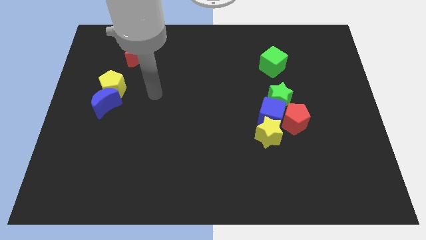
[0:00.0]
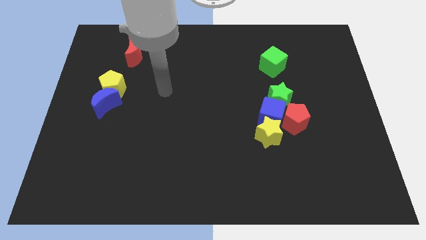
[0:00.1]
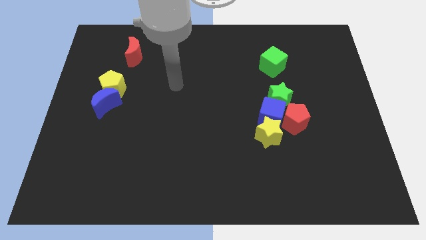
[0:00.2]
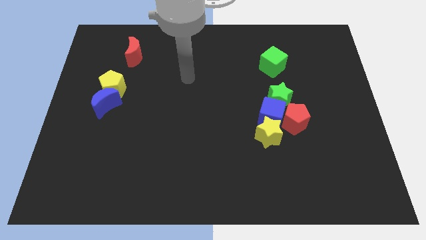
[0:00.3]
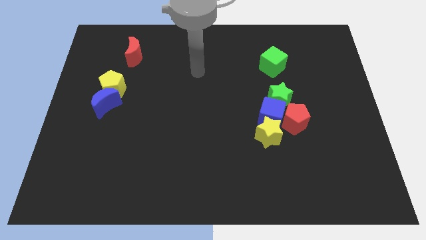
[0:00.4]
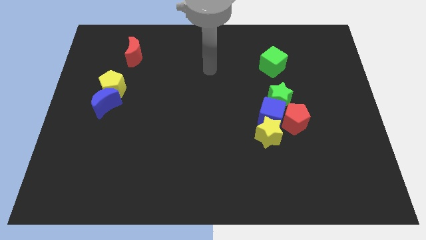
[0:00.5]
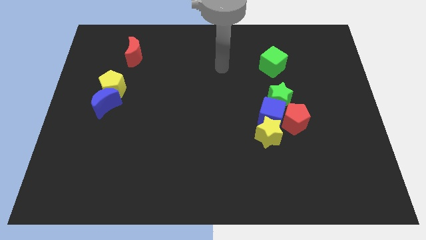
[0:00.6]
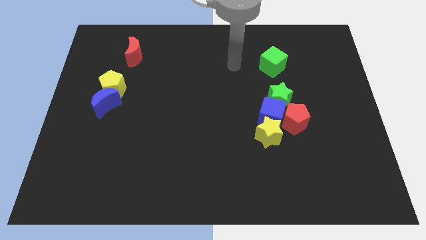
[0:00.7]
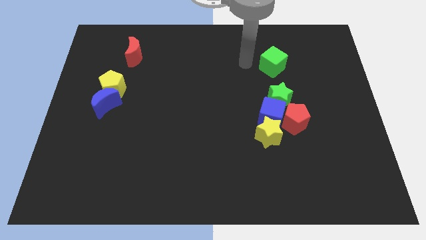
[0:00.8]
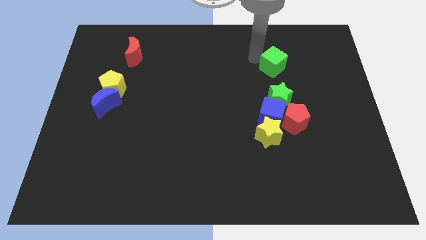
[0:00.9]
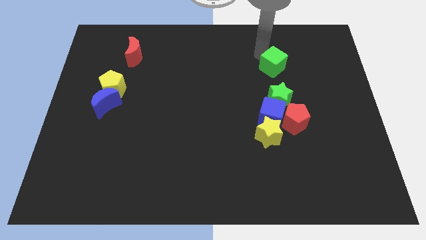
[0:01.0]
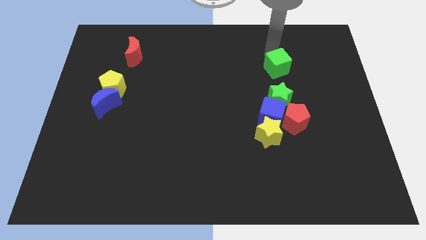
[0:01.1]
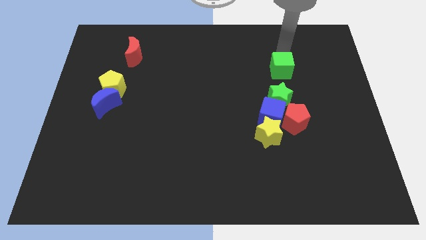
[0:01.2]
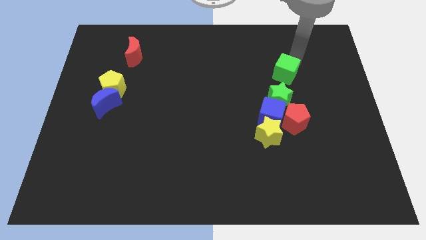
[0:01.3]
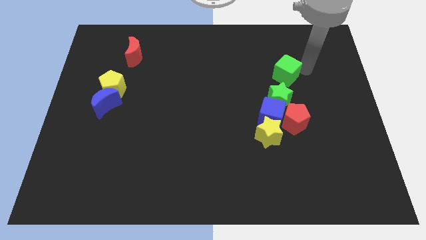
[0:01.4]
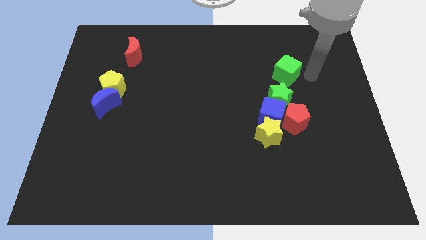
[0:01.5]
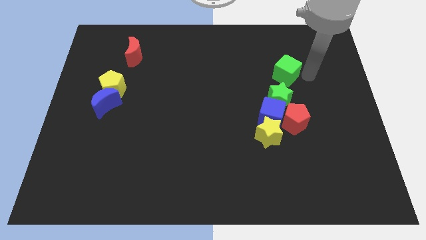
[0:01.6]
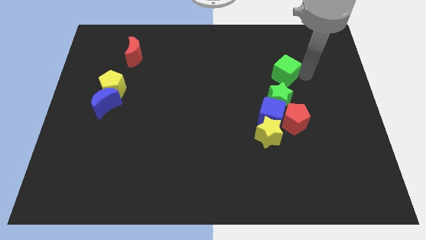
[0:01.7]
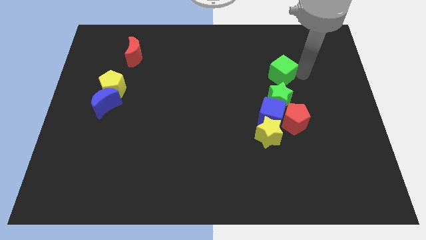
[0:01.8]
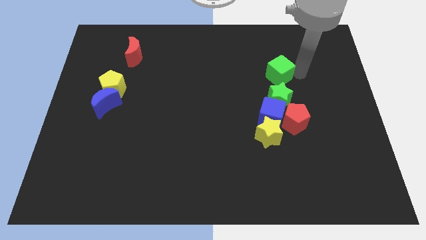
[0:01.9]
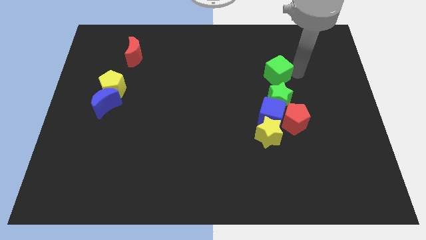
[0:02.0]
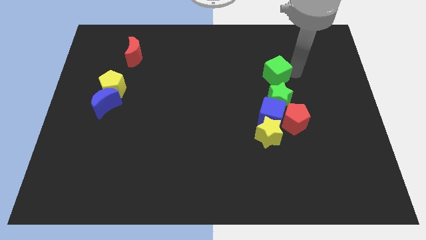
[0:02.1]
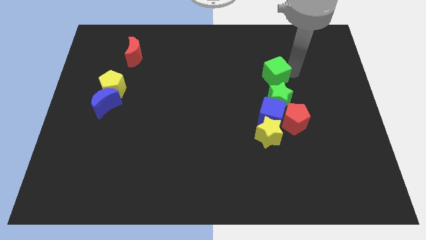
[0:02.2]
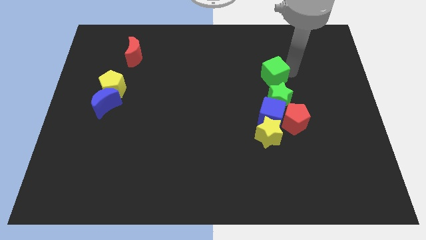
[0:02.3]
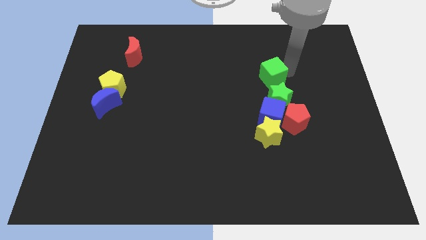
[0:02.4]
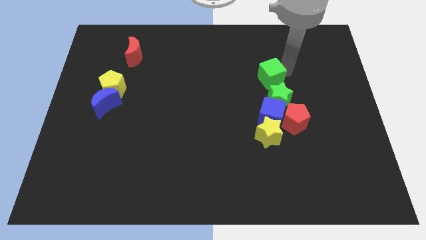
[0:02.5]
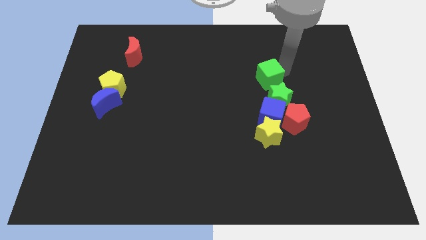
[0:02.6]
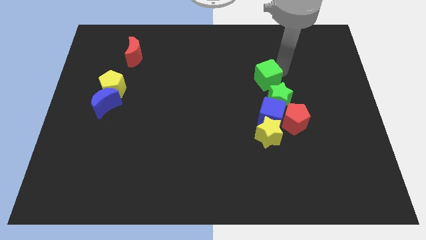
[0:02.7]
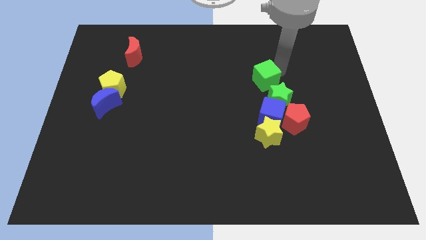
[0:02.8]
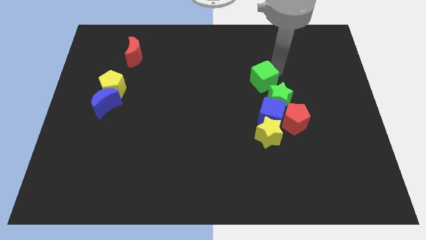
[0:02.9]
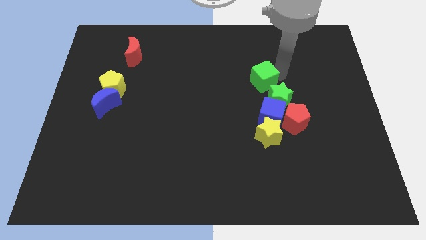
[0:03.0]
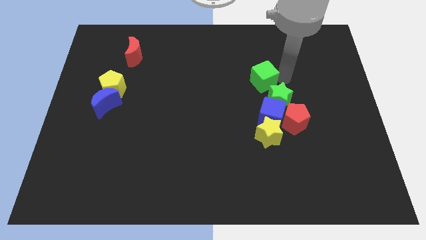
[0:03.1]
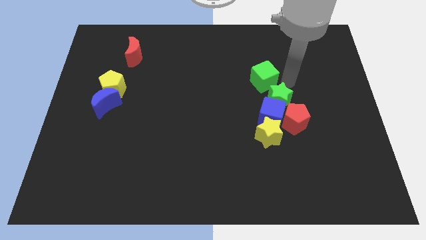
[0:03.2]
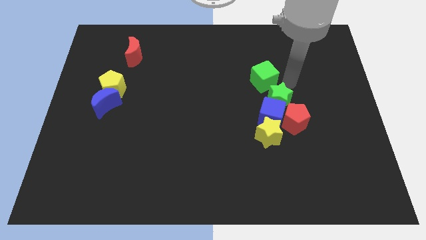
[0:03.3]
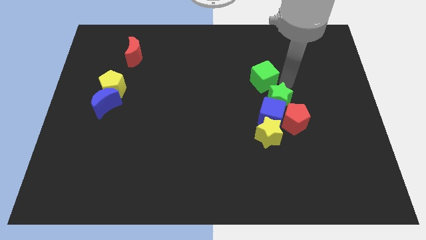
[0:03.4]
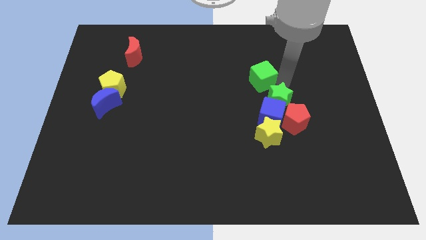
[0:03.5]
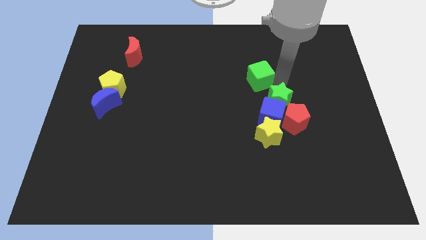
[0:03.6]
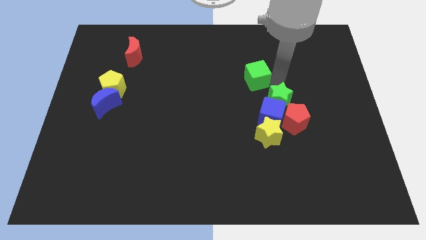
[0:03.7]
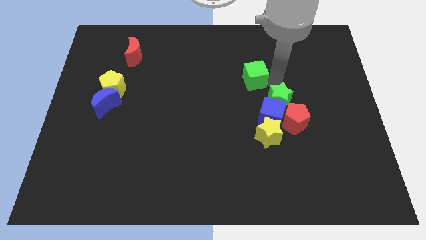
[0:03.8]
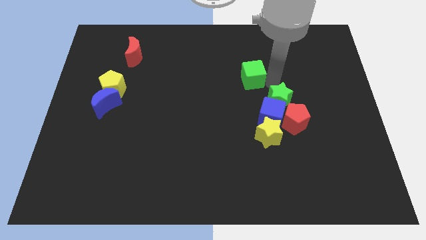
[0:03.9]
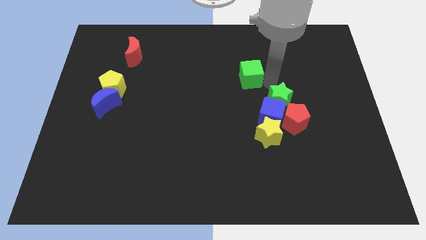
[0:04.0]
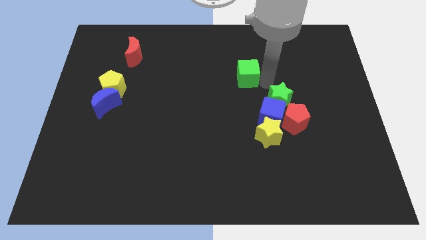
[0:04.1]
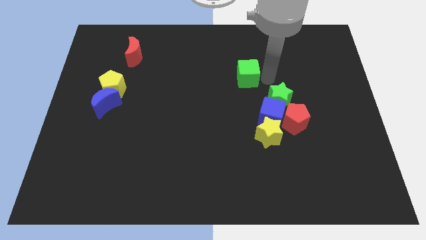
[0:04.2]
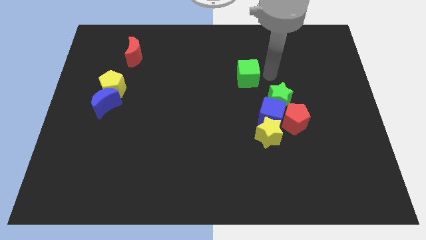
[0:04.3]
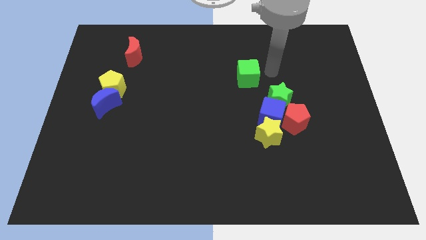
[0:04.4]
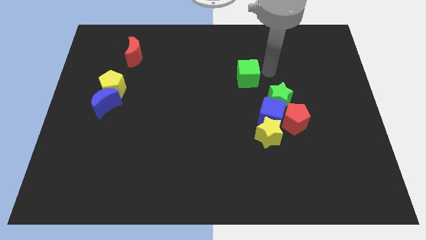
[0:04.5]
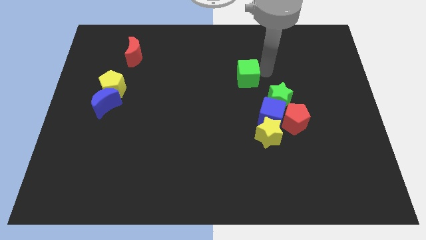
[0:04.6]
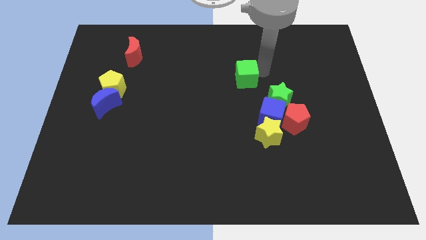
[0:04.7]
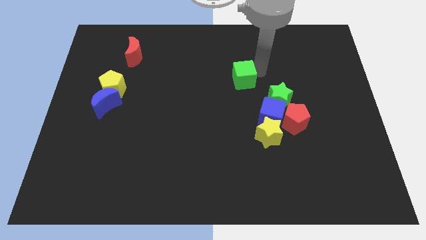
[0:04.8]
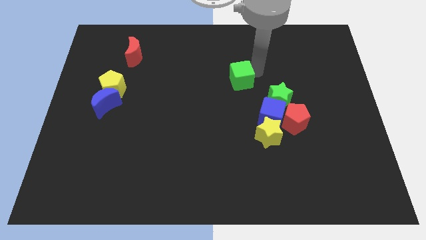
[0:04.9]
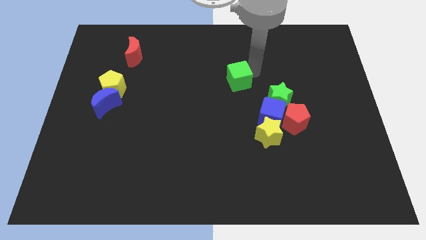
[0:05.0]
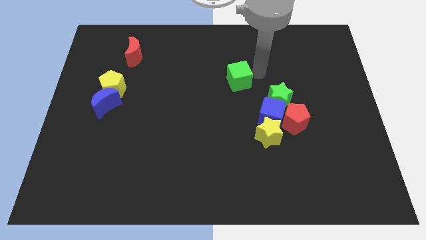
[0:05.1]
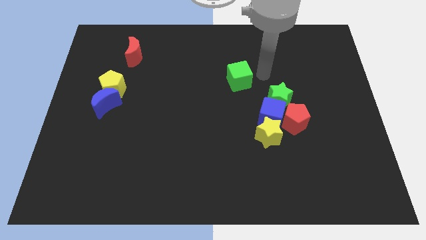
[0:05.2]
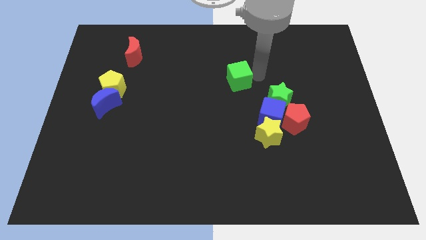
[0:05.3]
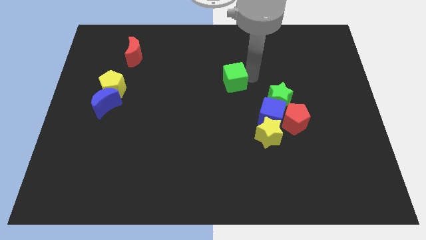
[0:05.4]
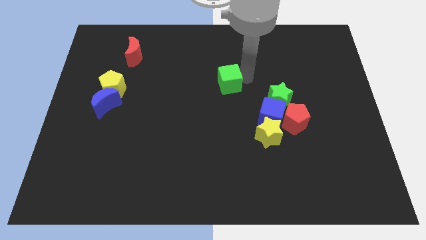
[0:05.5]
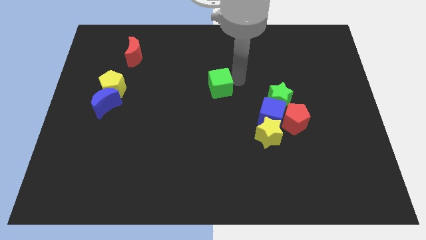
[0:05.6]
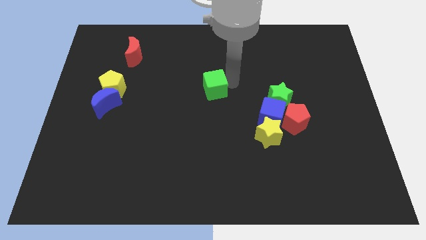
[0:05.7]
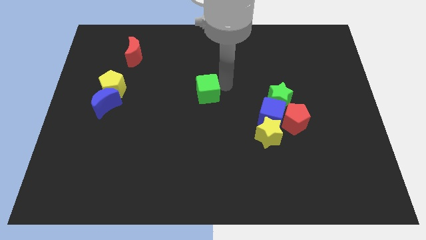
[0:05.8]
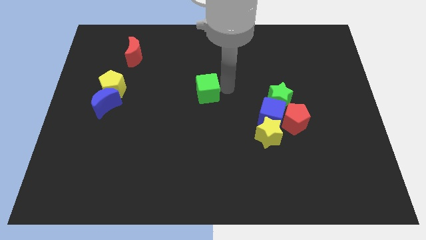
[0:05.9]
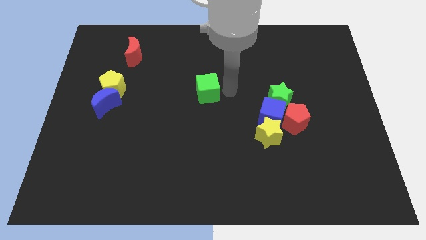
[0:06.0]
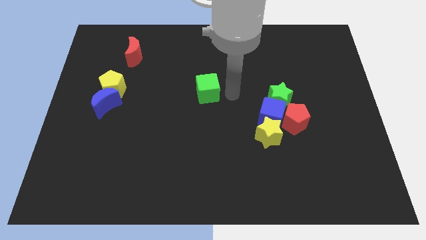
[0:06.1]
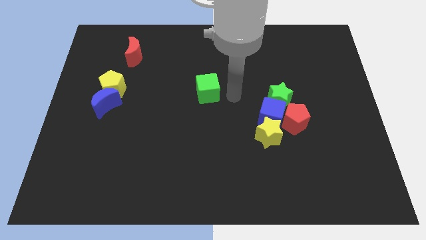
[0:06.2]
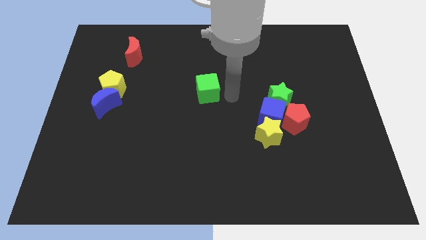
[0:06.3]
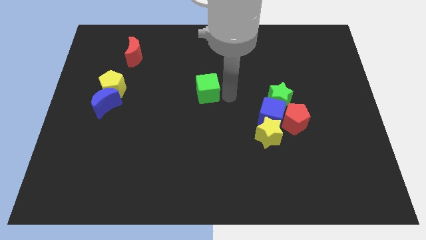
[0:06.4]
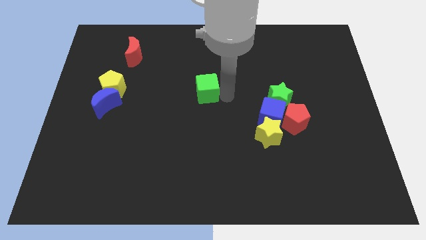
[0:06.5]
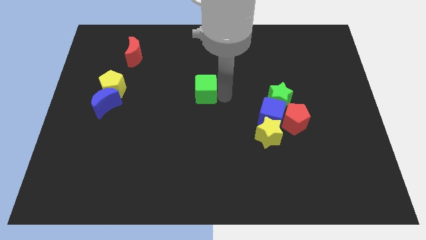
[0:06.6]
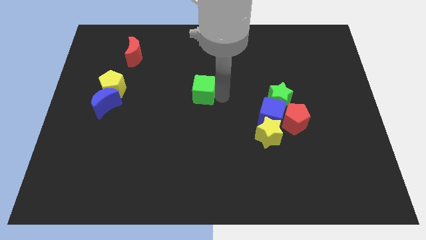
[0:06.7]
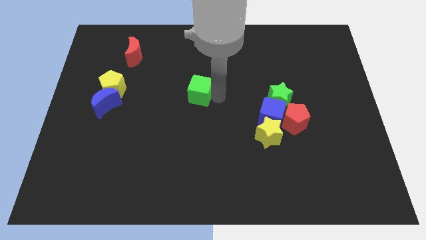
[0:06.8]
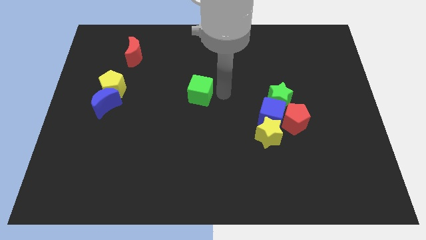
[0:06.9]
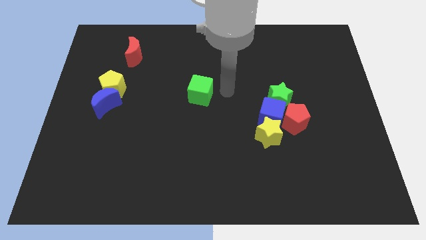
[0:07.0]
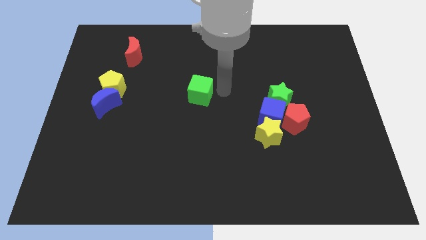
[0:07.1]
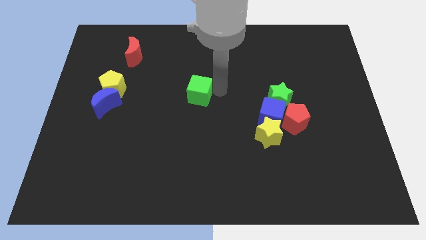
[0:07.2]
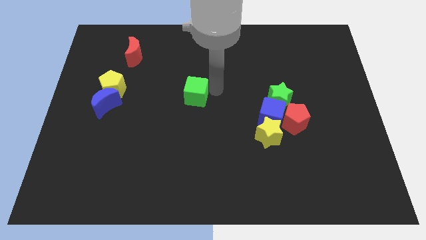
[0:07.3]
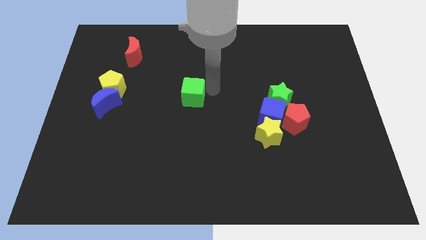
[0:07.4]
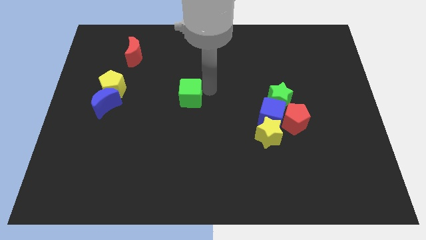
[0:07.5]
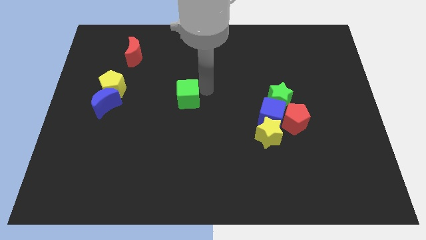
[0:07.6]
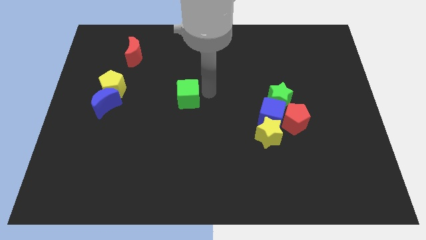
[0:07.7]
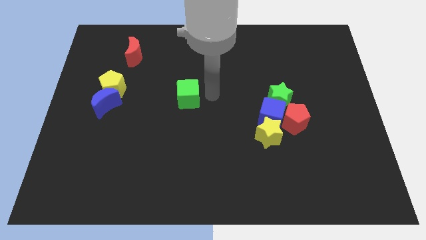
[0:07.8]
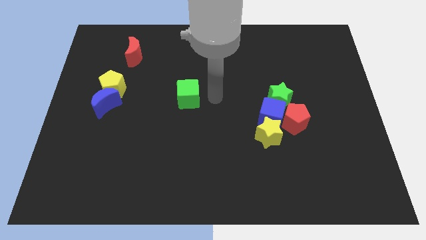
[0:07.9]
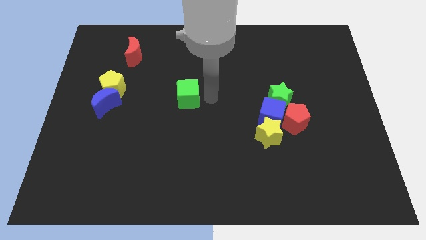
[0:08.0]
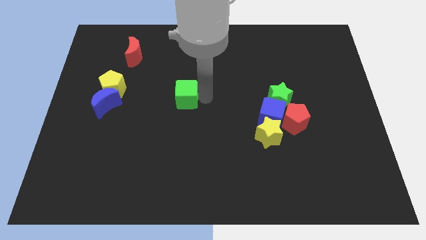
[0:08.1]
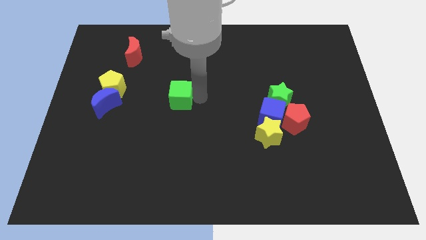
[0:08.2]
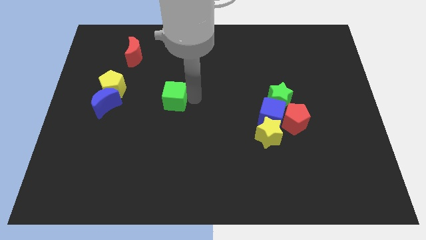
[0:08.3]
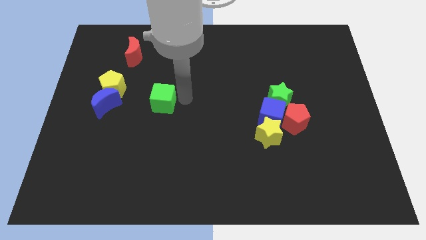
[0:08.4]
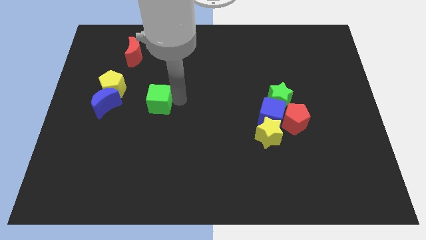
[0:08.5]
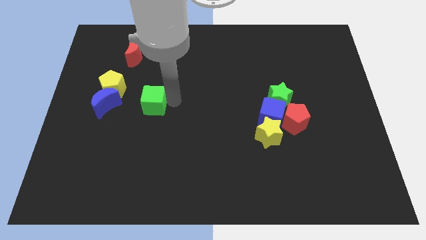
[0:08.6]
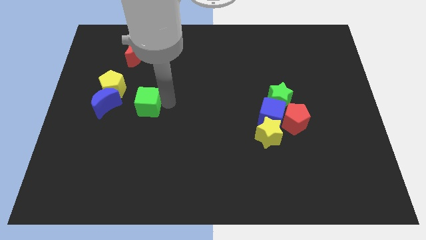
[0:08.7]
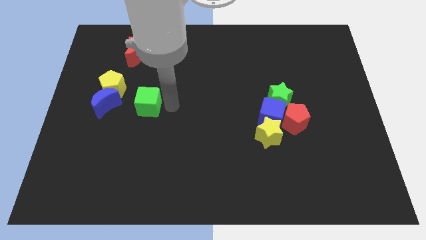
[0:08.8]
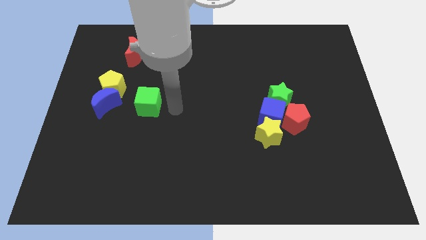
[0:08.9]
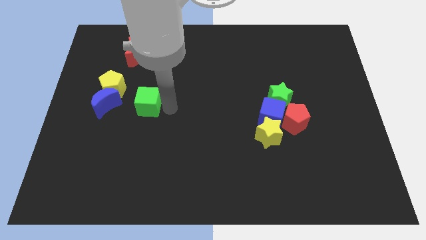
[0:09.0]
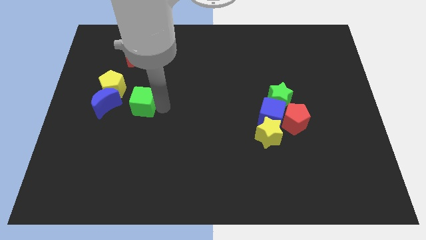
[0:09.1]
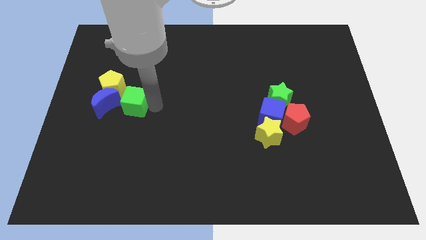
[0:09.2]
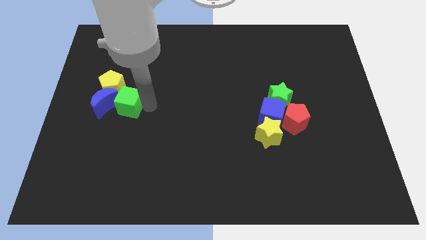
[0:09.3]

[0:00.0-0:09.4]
push the green cube to the blue moon
